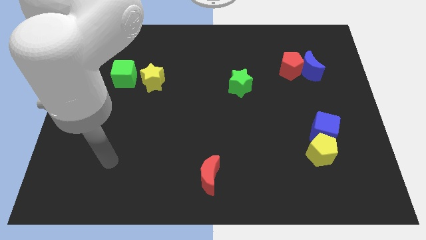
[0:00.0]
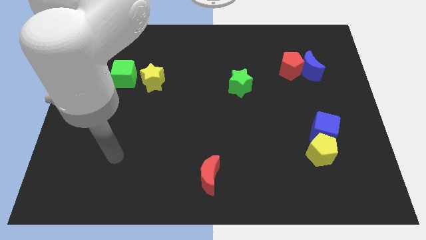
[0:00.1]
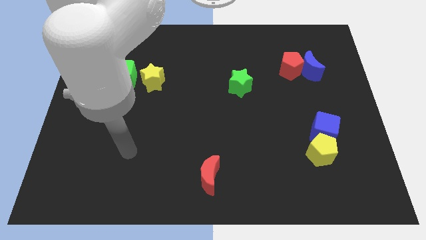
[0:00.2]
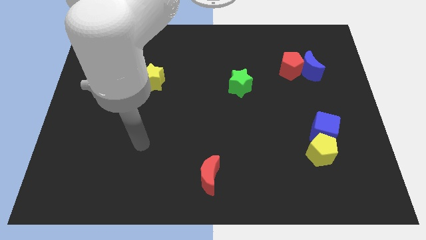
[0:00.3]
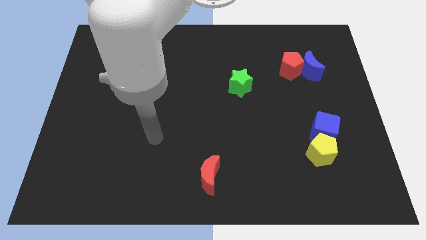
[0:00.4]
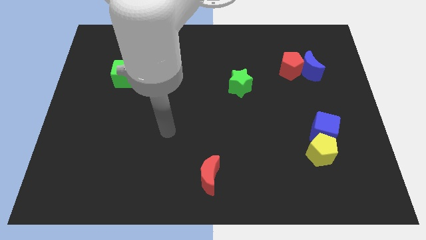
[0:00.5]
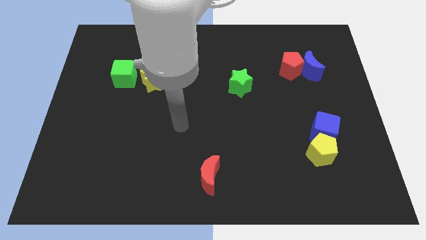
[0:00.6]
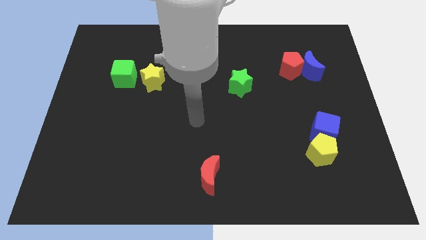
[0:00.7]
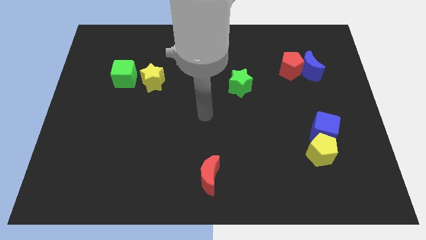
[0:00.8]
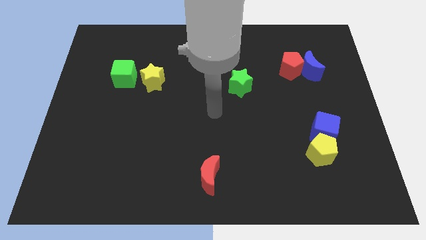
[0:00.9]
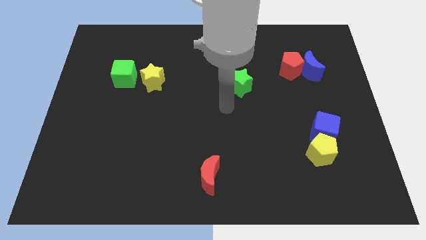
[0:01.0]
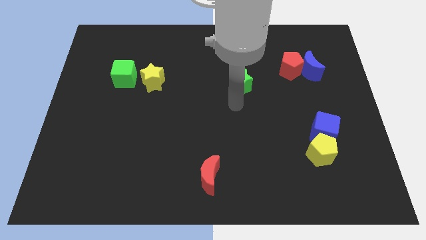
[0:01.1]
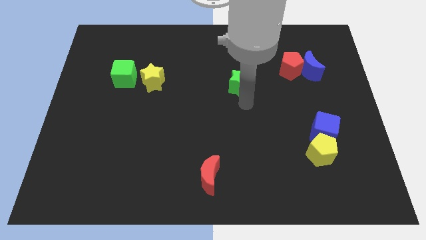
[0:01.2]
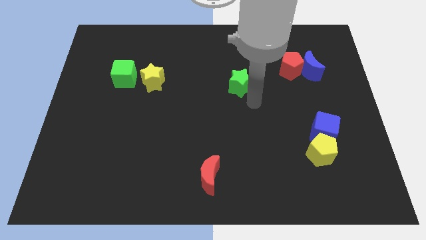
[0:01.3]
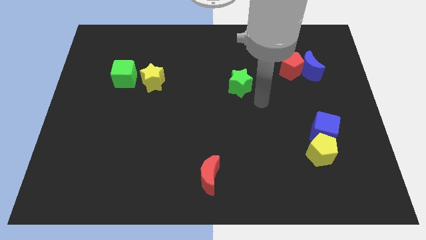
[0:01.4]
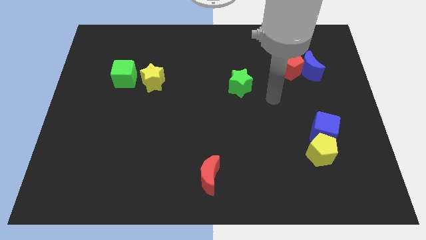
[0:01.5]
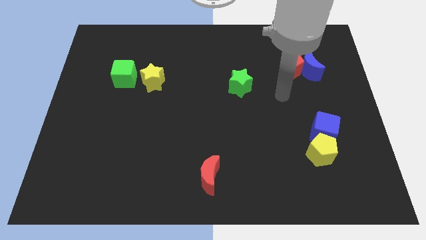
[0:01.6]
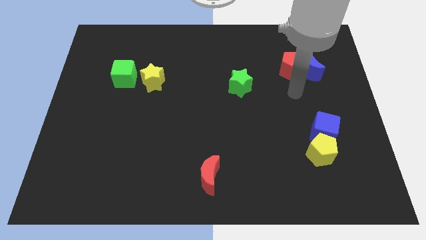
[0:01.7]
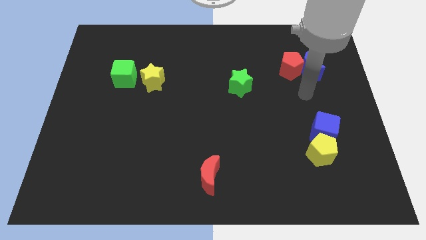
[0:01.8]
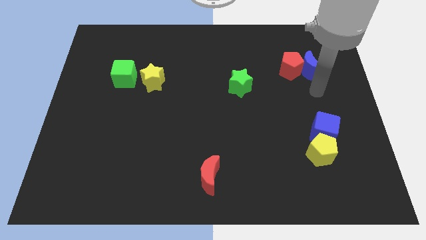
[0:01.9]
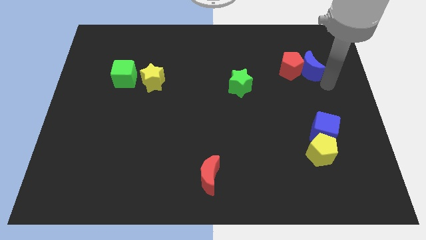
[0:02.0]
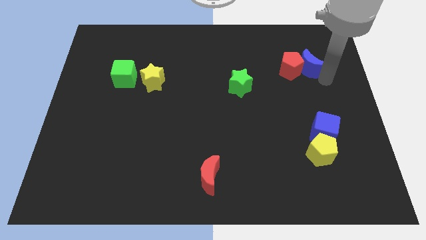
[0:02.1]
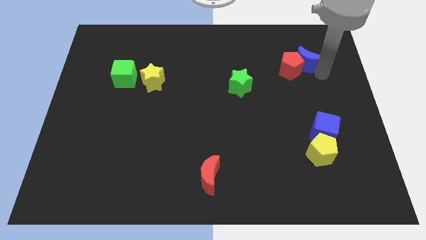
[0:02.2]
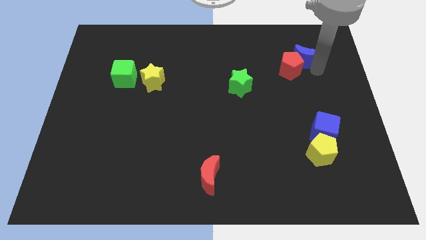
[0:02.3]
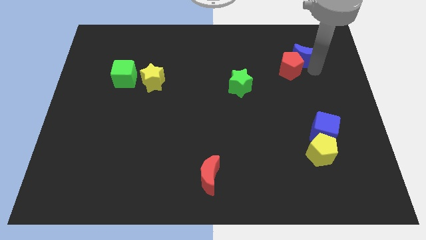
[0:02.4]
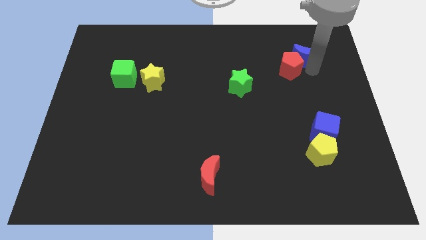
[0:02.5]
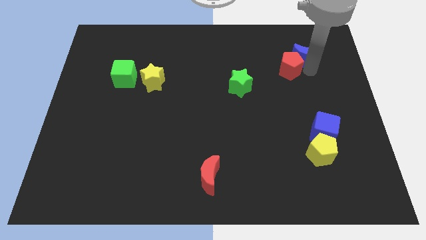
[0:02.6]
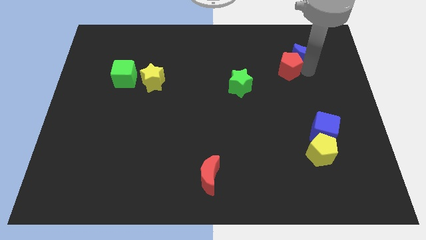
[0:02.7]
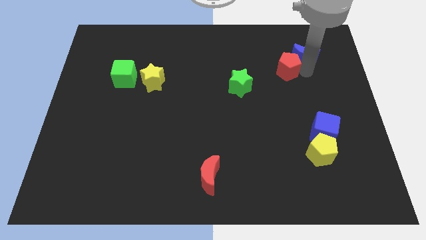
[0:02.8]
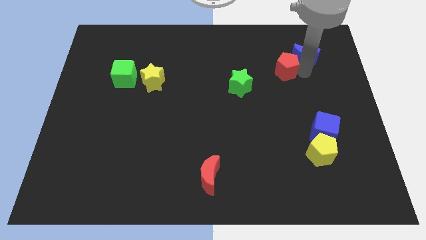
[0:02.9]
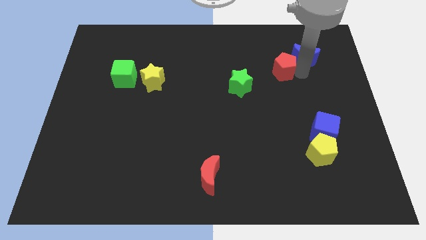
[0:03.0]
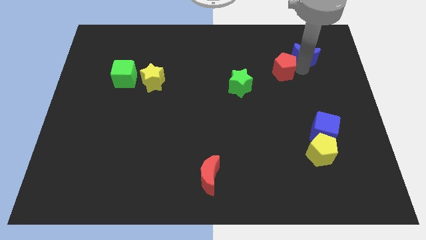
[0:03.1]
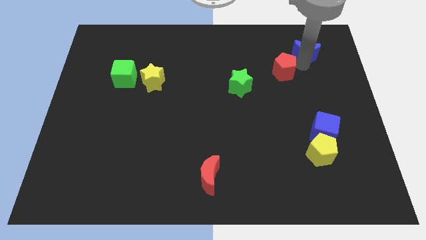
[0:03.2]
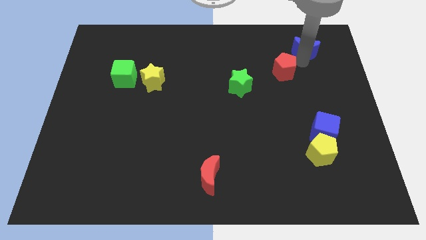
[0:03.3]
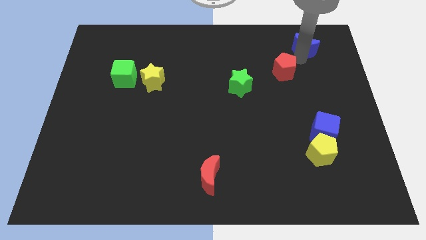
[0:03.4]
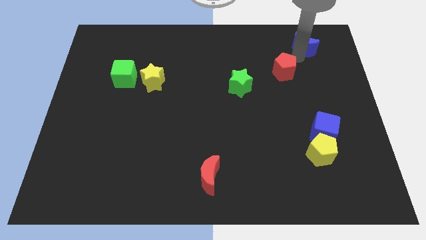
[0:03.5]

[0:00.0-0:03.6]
separate the red pentagon from the blue moon

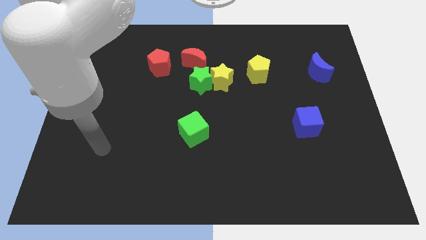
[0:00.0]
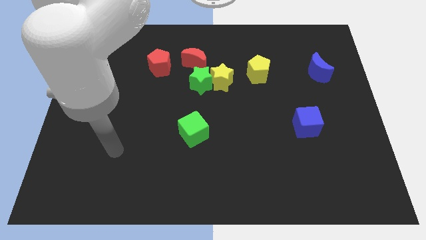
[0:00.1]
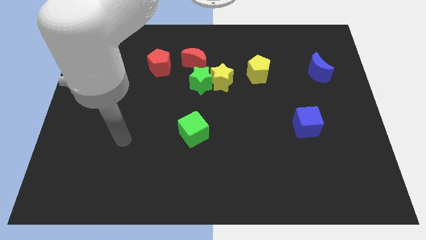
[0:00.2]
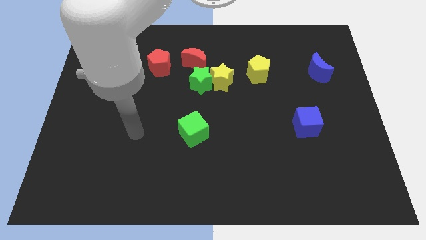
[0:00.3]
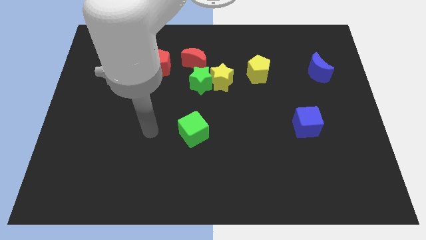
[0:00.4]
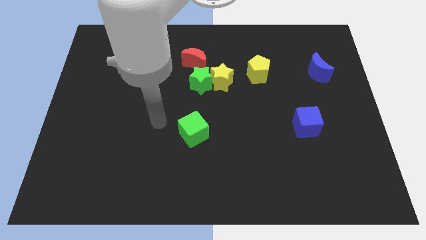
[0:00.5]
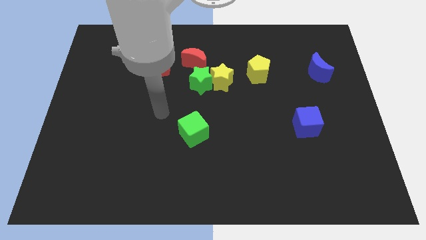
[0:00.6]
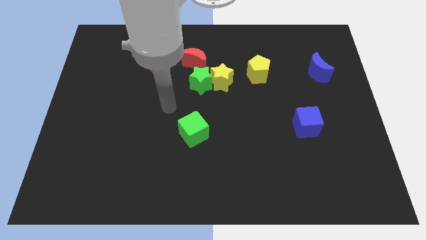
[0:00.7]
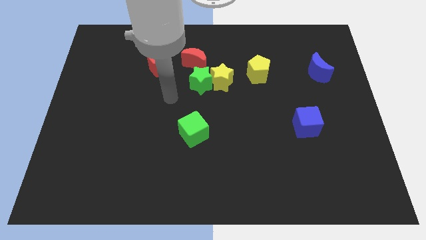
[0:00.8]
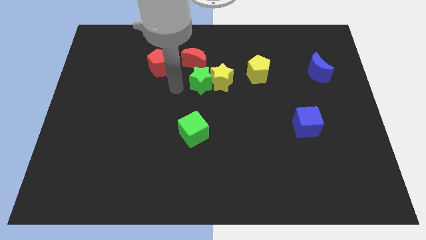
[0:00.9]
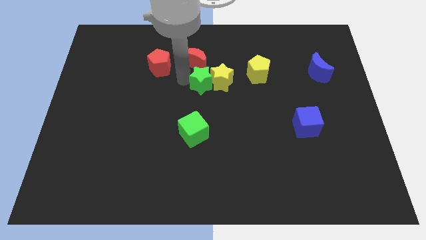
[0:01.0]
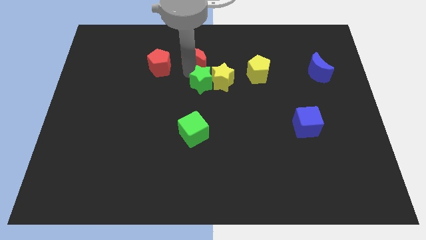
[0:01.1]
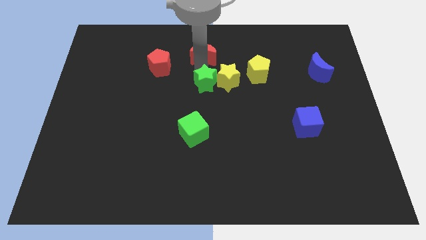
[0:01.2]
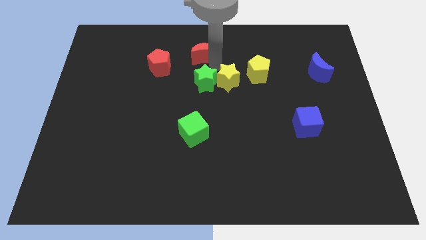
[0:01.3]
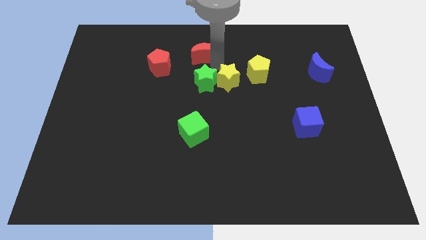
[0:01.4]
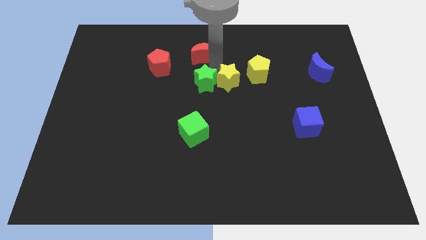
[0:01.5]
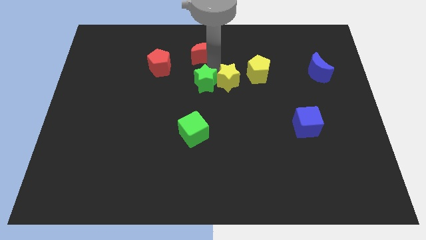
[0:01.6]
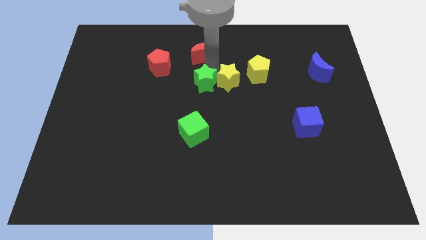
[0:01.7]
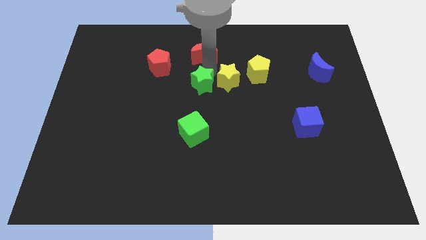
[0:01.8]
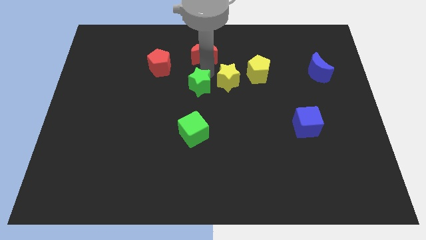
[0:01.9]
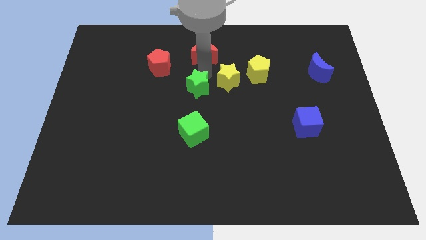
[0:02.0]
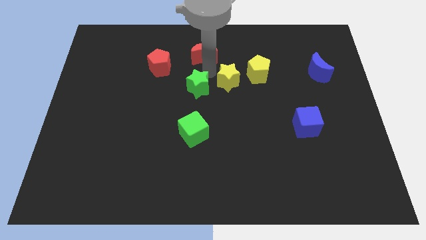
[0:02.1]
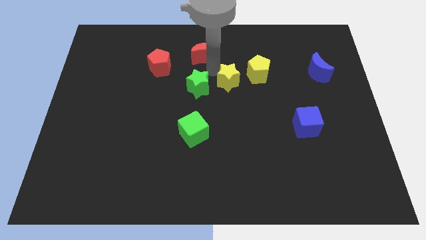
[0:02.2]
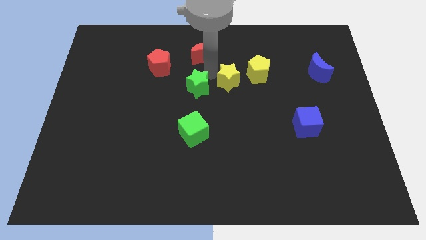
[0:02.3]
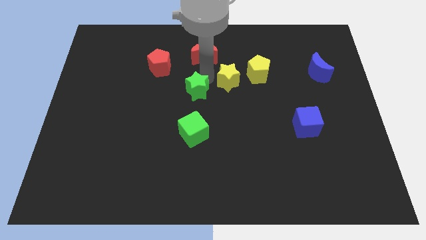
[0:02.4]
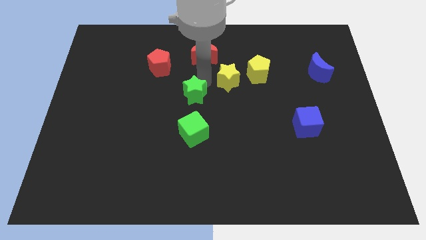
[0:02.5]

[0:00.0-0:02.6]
pull the green star apart from the yellow star and red moon

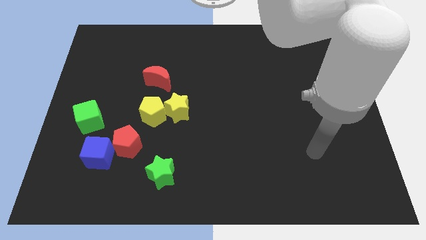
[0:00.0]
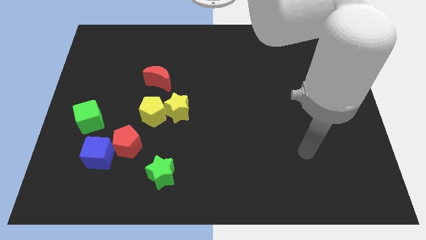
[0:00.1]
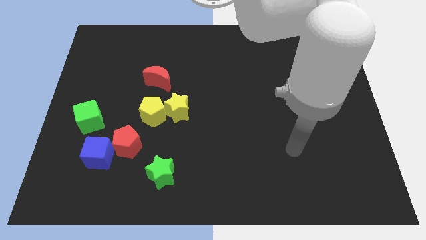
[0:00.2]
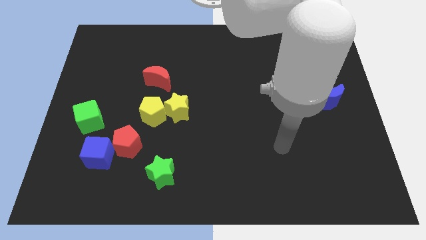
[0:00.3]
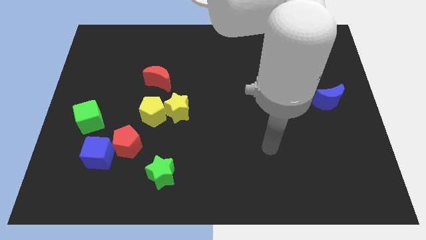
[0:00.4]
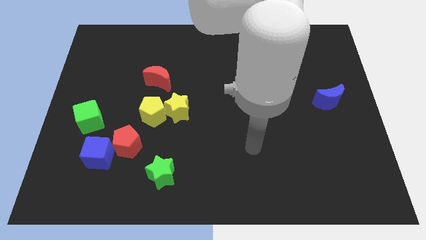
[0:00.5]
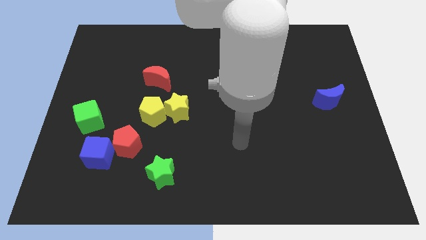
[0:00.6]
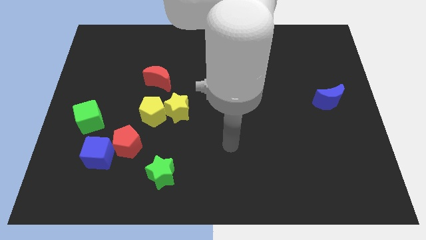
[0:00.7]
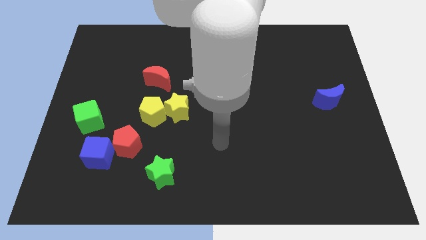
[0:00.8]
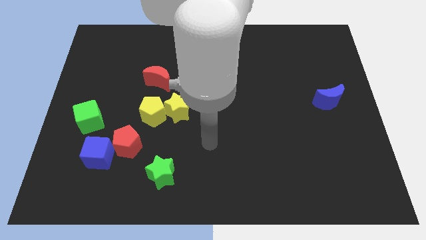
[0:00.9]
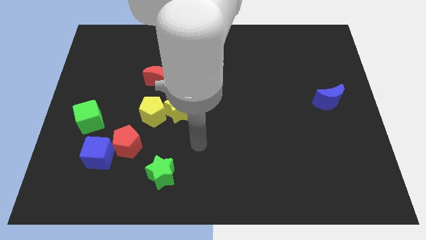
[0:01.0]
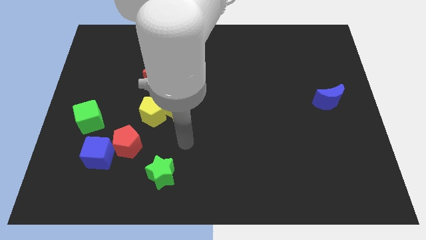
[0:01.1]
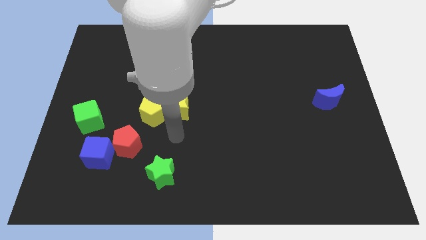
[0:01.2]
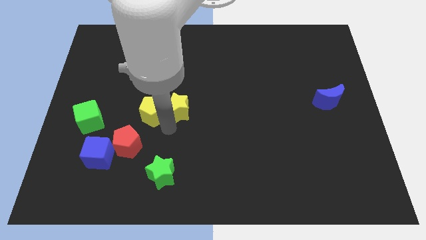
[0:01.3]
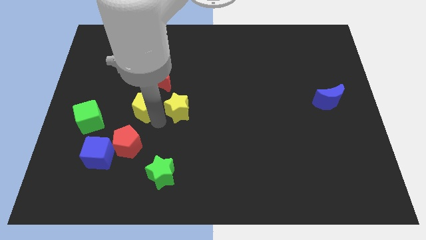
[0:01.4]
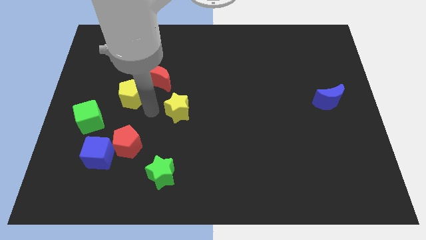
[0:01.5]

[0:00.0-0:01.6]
separate the yellow star from the yellow pentagon

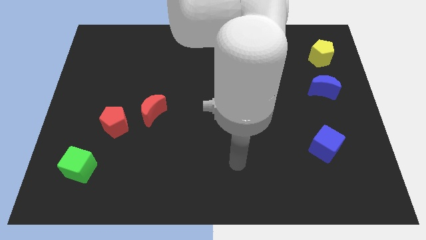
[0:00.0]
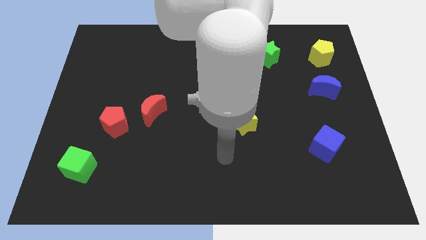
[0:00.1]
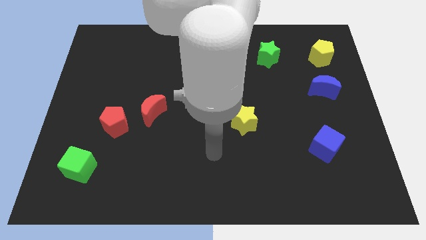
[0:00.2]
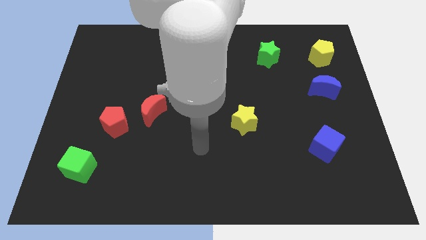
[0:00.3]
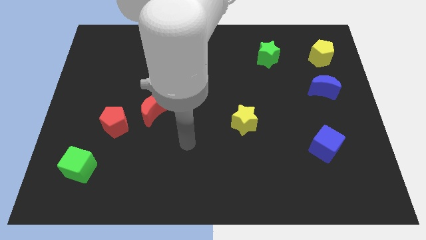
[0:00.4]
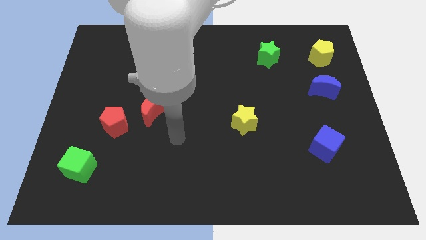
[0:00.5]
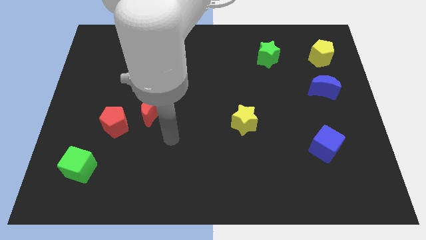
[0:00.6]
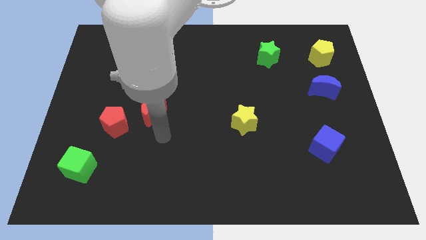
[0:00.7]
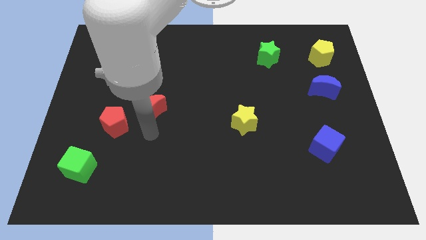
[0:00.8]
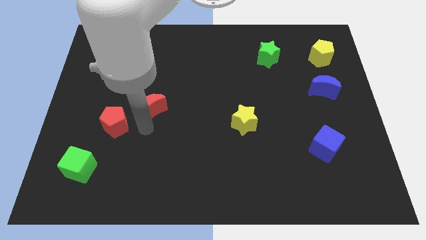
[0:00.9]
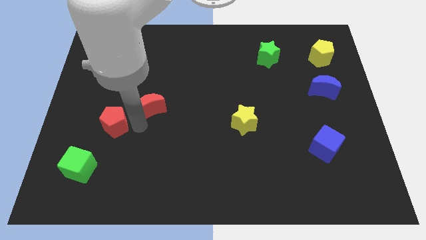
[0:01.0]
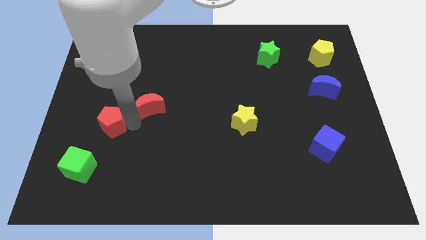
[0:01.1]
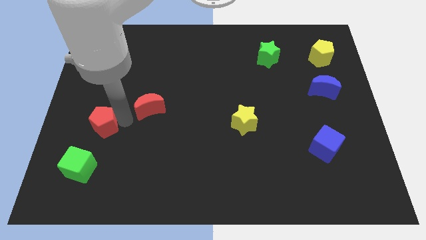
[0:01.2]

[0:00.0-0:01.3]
pull the red moon apart from the red pentagon

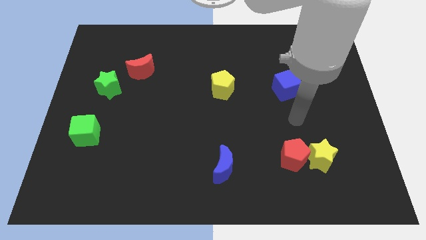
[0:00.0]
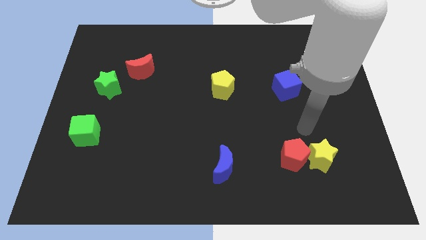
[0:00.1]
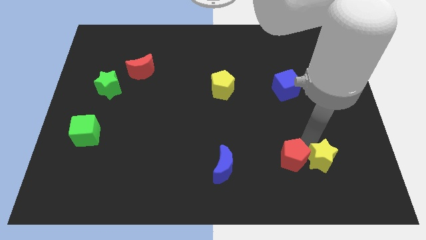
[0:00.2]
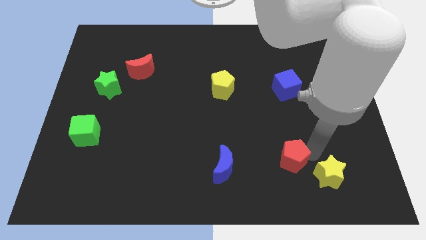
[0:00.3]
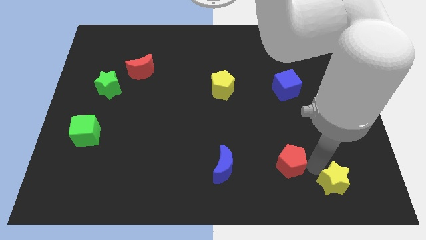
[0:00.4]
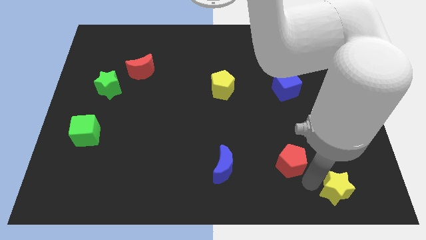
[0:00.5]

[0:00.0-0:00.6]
move the red pentagon away from the yellow star
